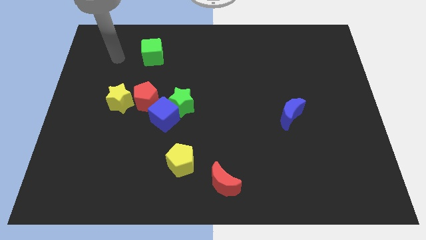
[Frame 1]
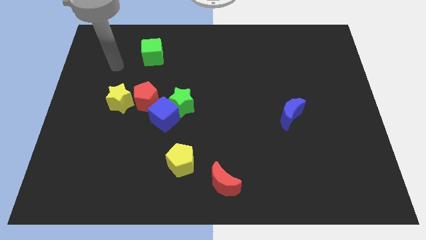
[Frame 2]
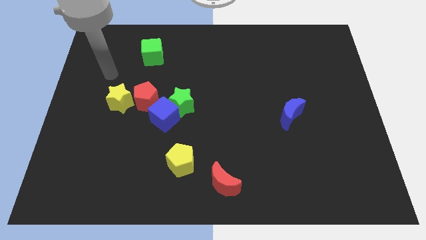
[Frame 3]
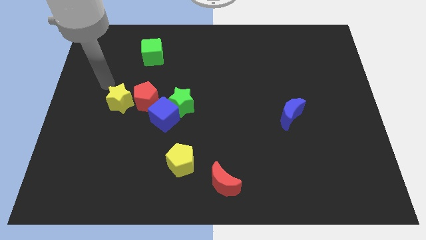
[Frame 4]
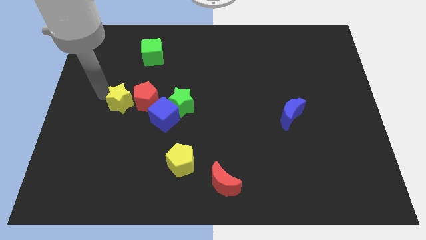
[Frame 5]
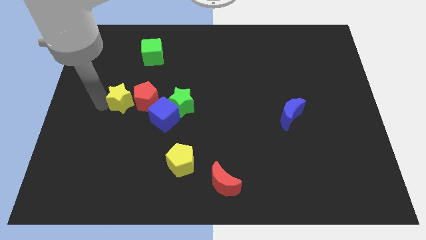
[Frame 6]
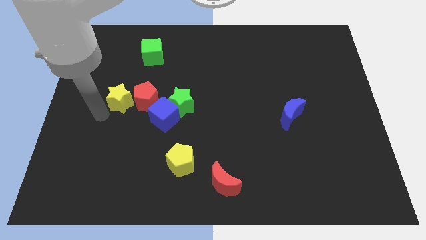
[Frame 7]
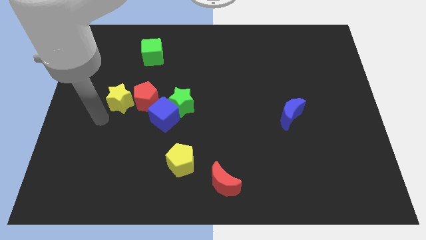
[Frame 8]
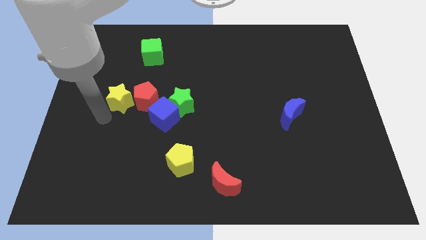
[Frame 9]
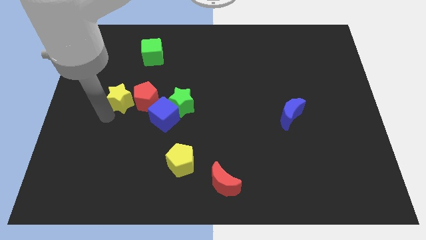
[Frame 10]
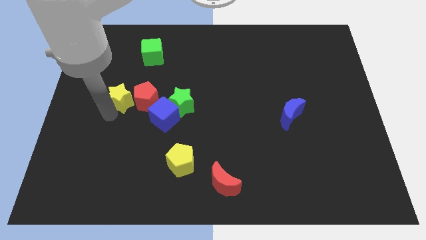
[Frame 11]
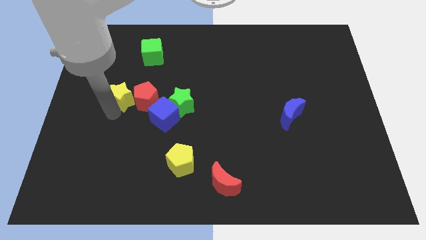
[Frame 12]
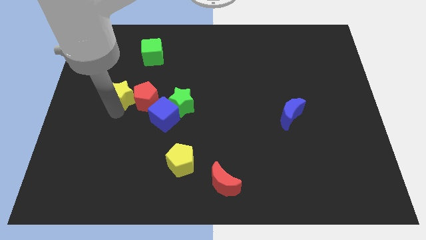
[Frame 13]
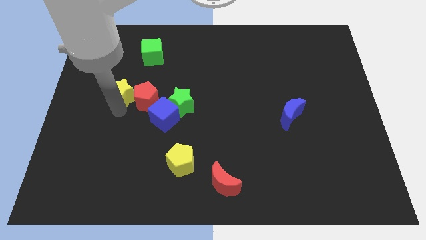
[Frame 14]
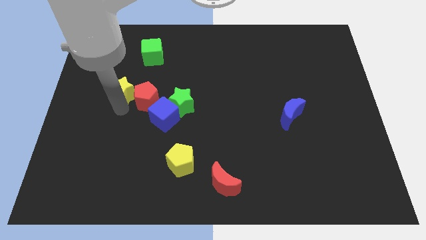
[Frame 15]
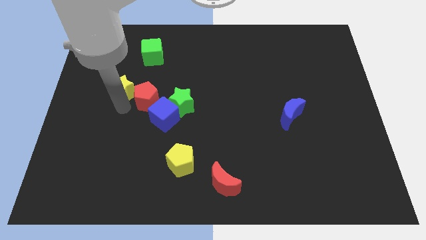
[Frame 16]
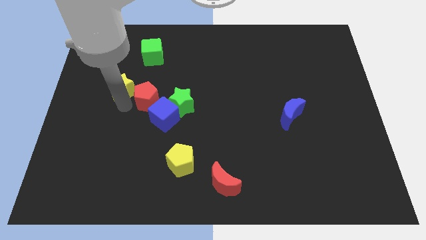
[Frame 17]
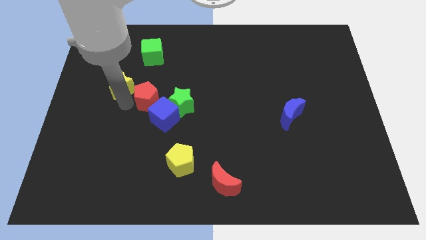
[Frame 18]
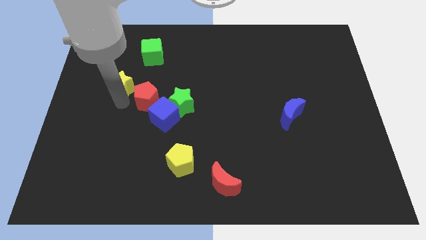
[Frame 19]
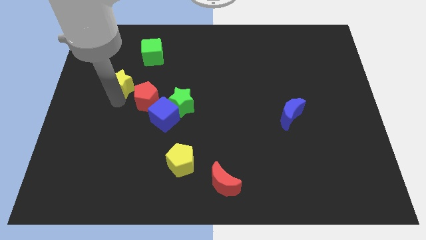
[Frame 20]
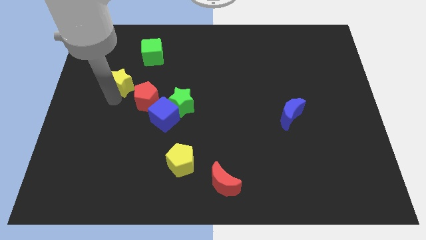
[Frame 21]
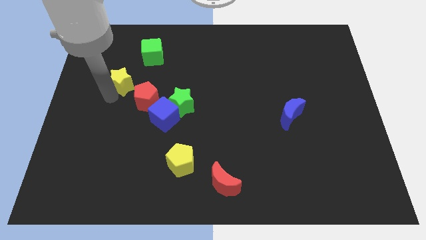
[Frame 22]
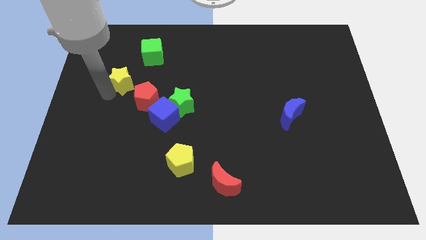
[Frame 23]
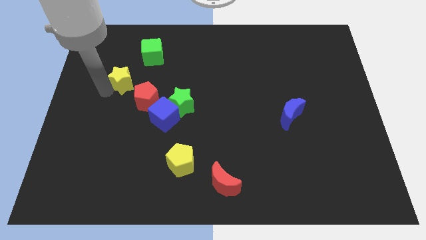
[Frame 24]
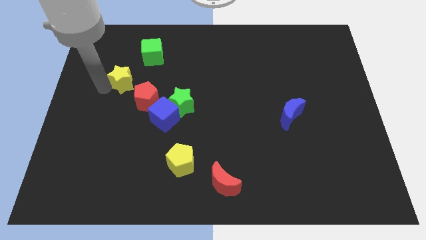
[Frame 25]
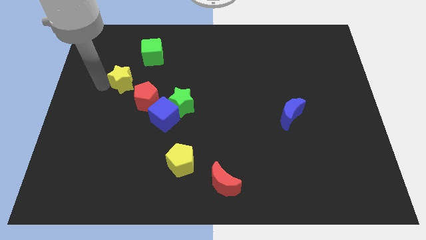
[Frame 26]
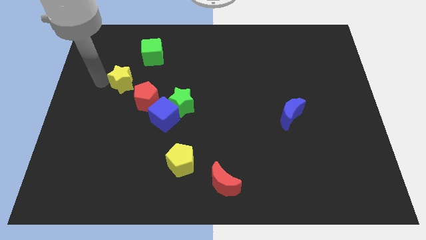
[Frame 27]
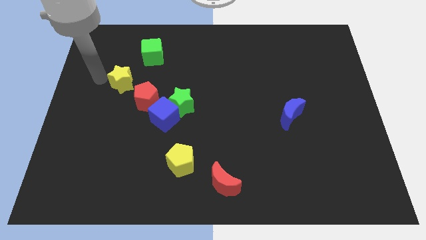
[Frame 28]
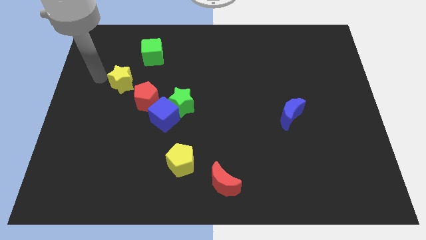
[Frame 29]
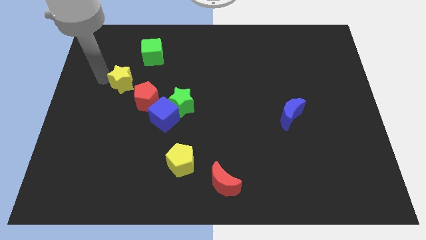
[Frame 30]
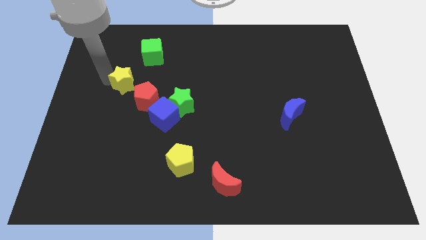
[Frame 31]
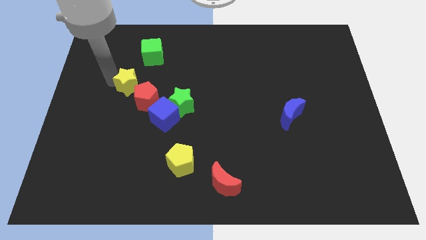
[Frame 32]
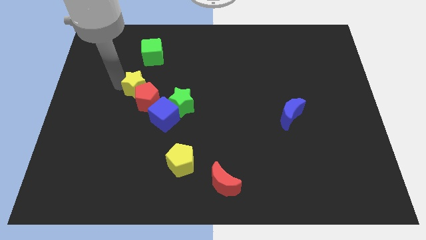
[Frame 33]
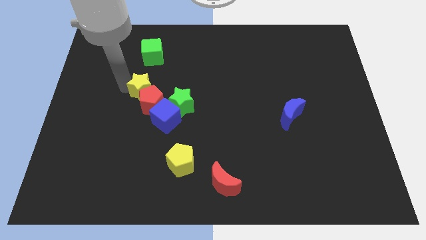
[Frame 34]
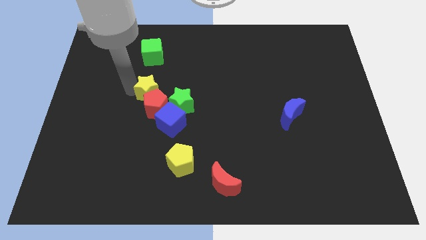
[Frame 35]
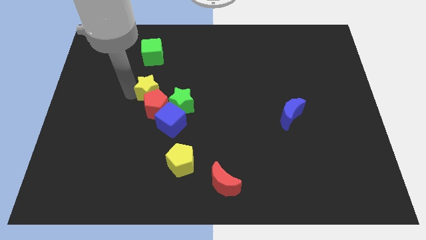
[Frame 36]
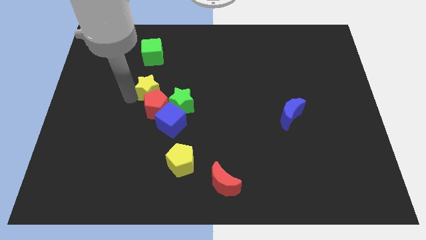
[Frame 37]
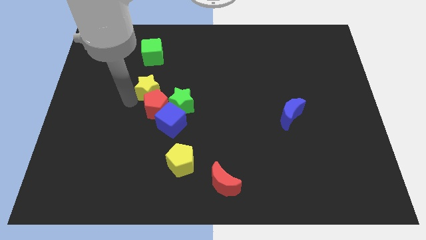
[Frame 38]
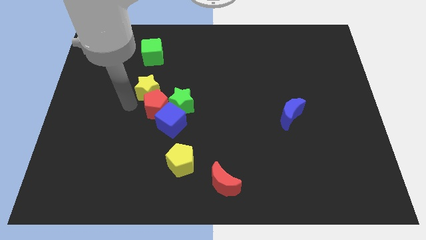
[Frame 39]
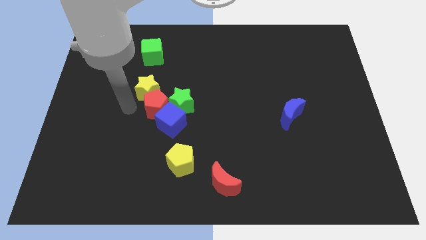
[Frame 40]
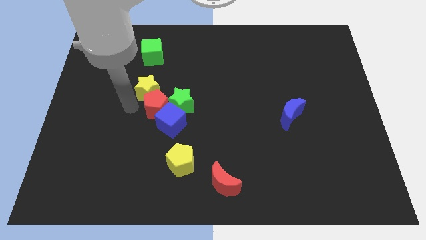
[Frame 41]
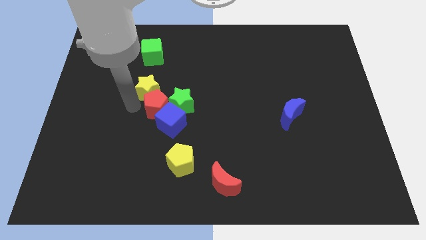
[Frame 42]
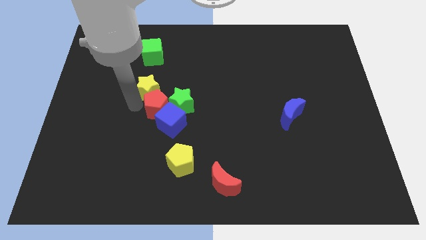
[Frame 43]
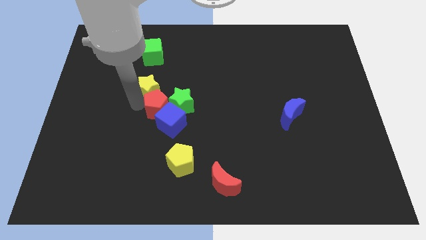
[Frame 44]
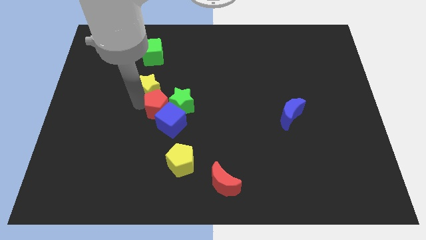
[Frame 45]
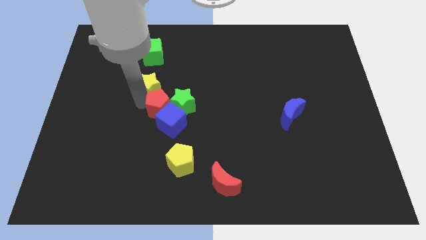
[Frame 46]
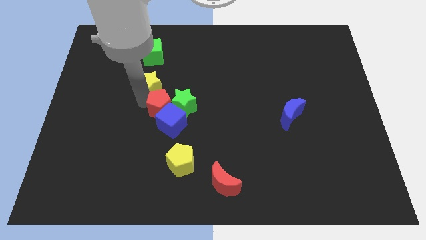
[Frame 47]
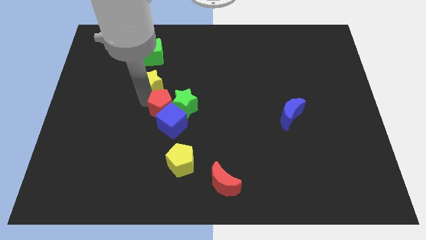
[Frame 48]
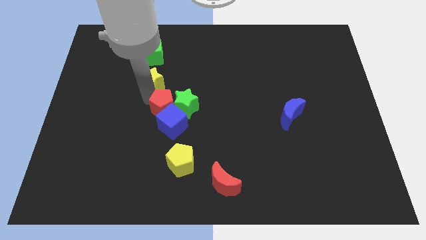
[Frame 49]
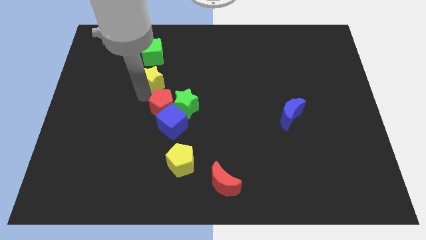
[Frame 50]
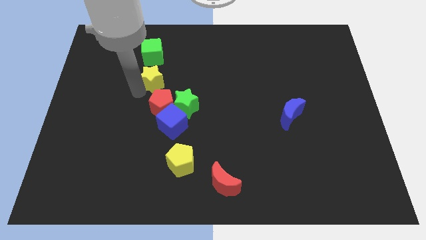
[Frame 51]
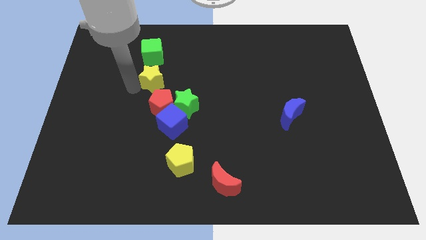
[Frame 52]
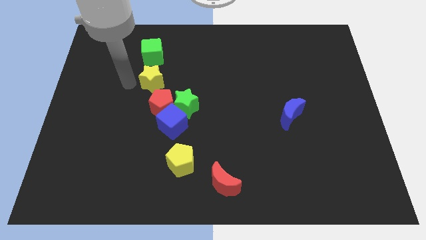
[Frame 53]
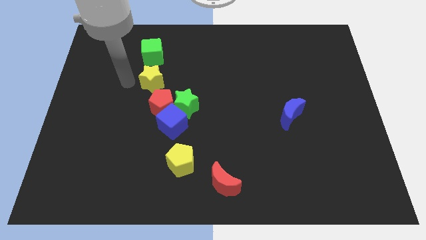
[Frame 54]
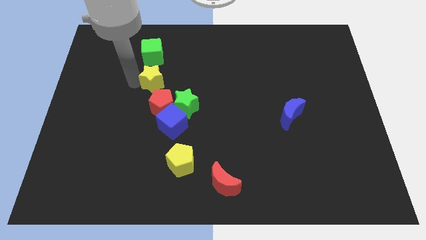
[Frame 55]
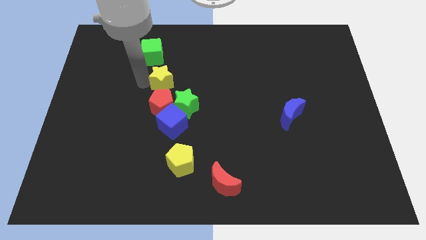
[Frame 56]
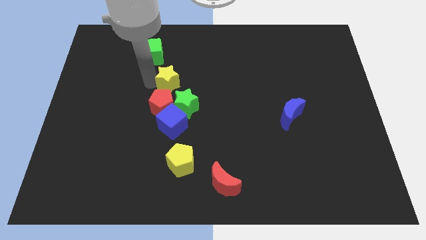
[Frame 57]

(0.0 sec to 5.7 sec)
push the yellow star to the middle

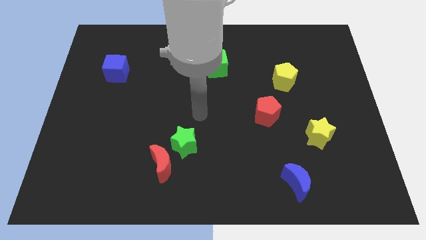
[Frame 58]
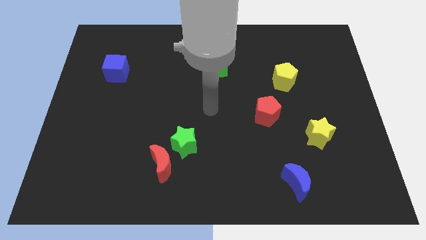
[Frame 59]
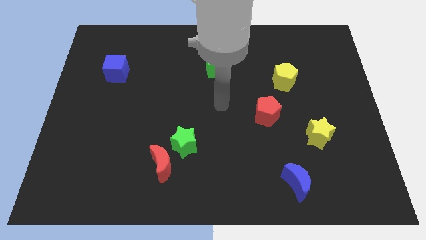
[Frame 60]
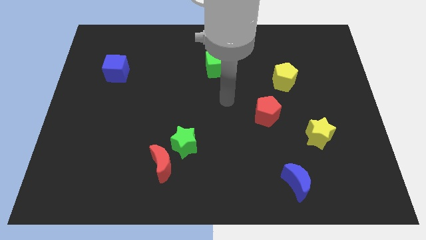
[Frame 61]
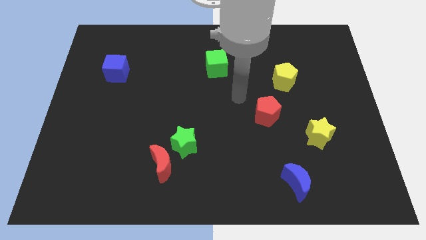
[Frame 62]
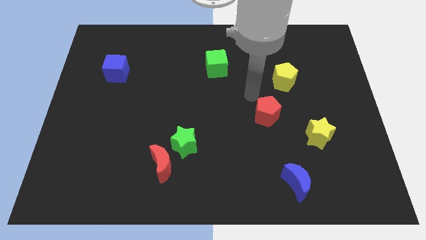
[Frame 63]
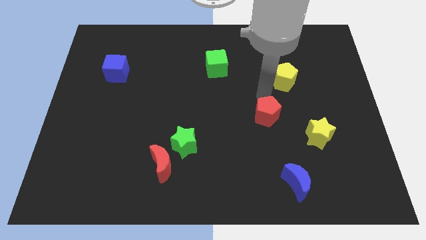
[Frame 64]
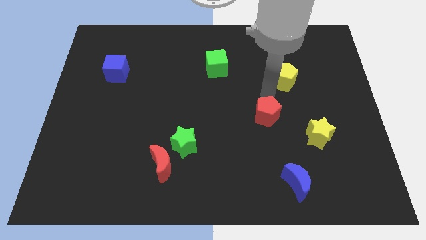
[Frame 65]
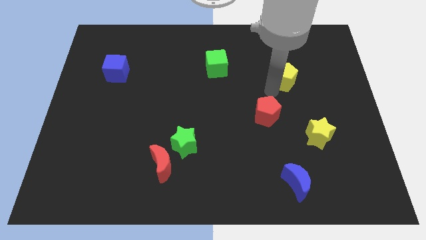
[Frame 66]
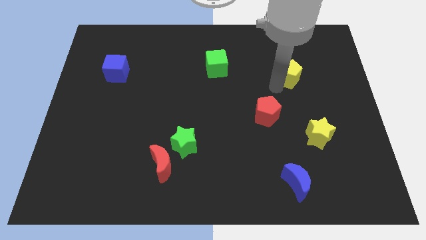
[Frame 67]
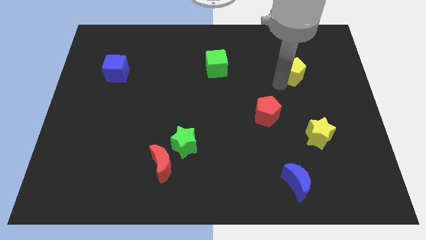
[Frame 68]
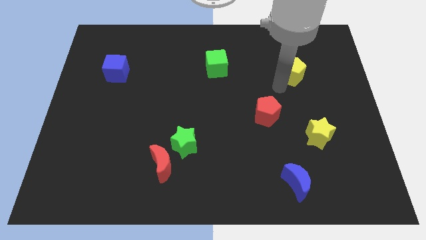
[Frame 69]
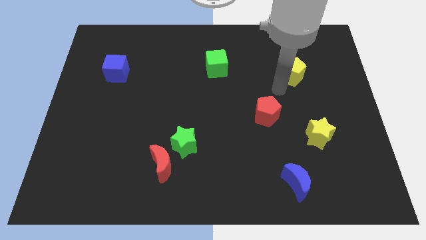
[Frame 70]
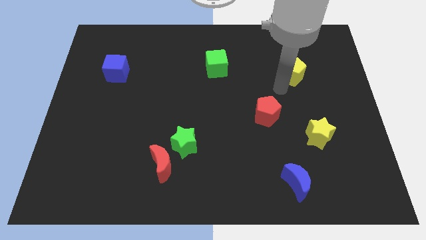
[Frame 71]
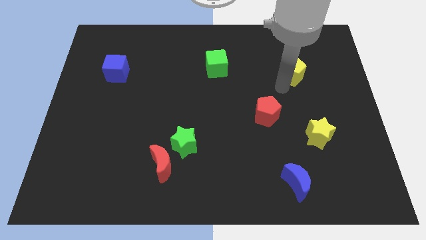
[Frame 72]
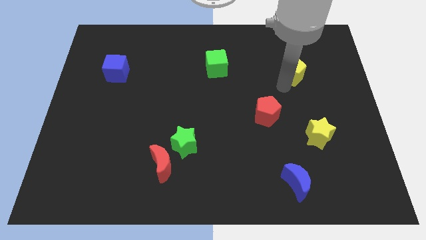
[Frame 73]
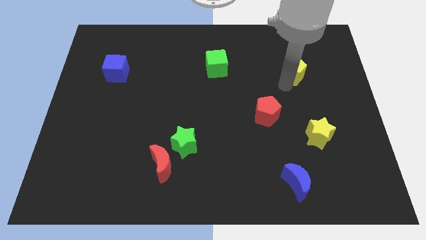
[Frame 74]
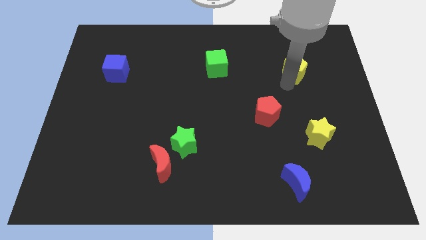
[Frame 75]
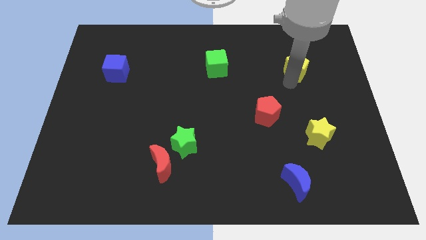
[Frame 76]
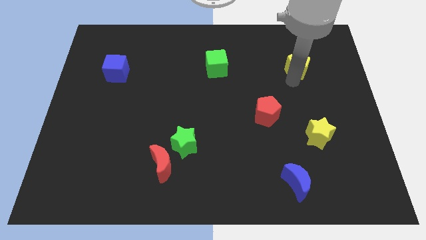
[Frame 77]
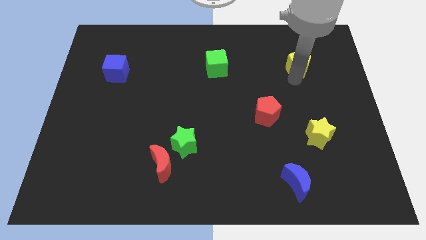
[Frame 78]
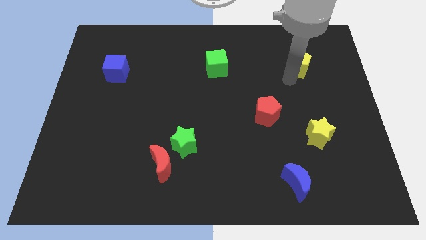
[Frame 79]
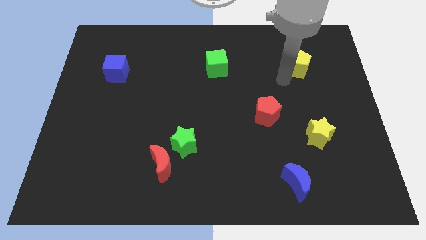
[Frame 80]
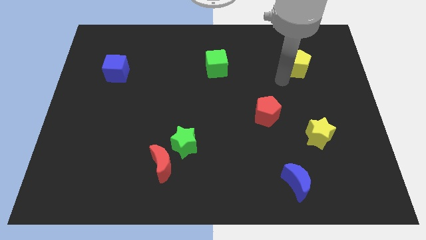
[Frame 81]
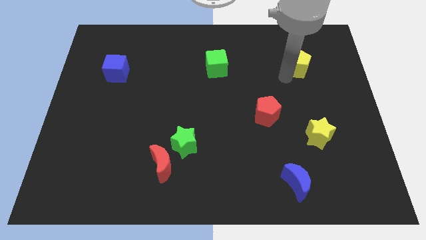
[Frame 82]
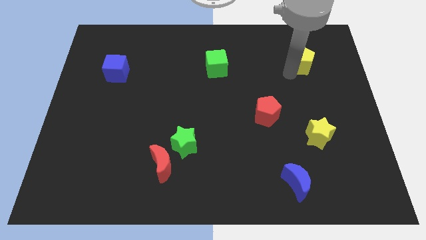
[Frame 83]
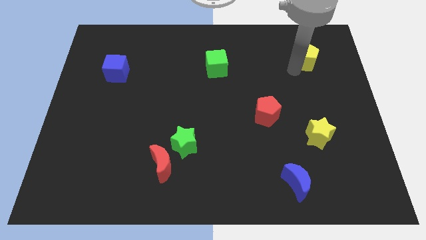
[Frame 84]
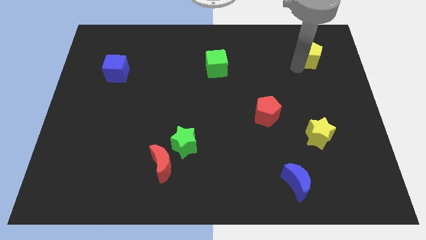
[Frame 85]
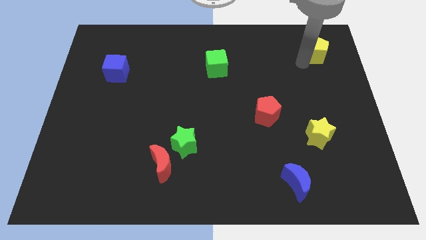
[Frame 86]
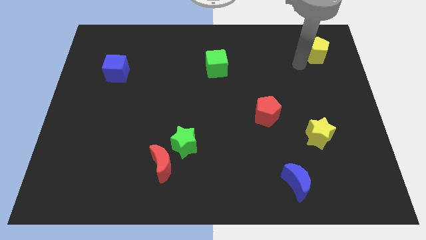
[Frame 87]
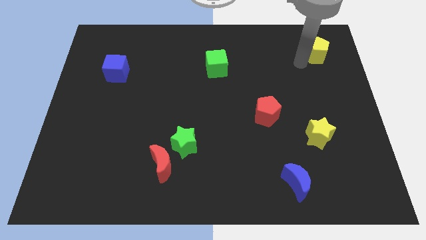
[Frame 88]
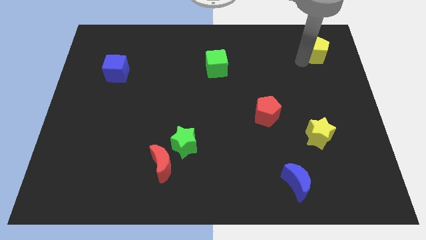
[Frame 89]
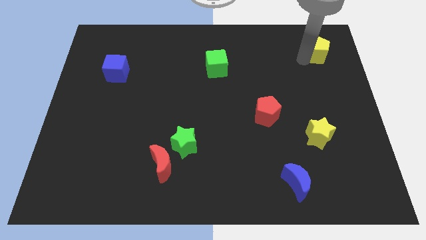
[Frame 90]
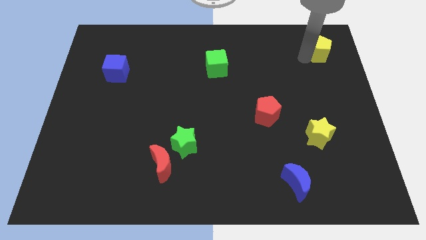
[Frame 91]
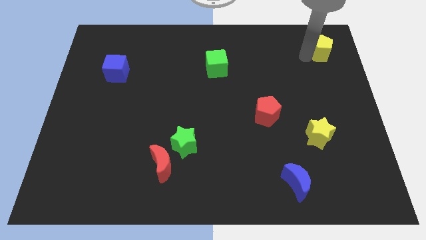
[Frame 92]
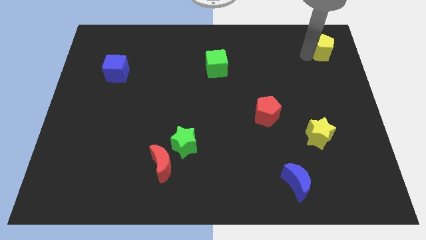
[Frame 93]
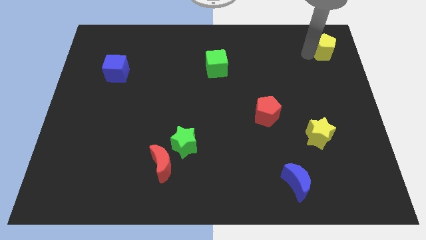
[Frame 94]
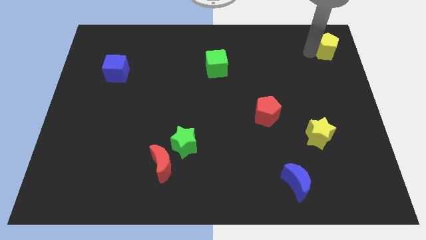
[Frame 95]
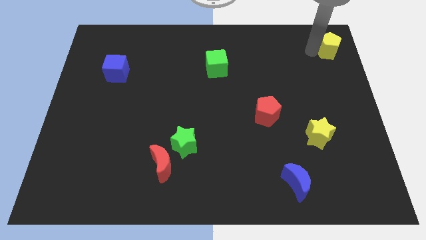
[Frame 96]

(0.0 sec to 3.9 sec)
slide the yellow pentagon to the top right corner
